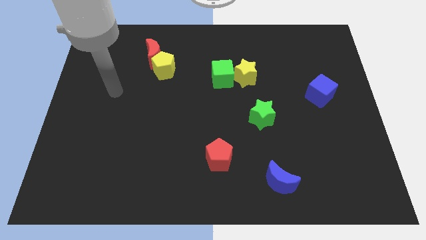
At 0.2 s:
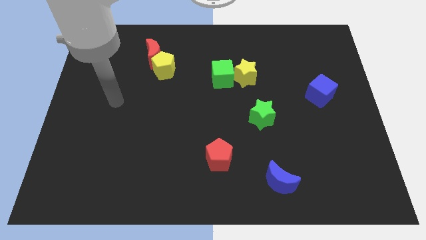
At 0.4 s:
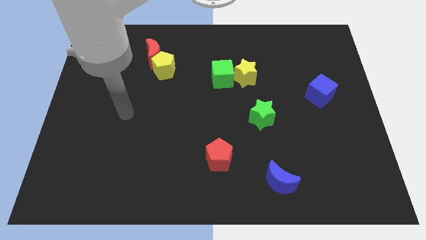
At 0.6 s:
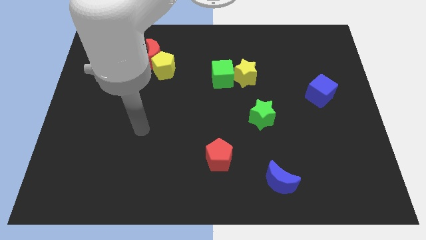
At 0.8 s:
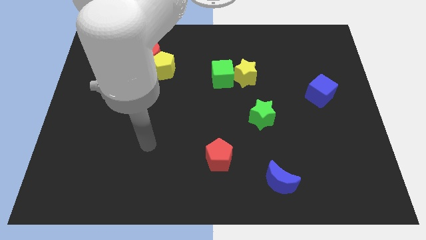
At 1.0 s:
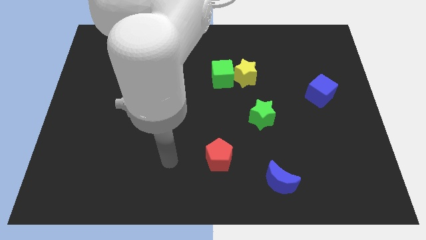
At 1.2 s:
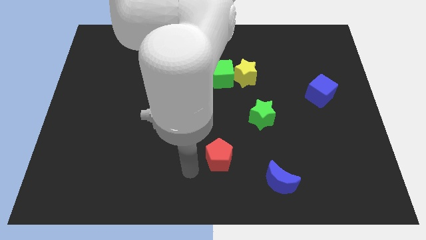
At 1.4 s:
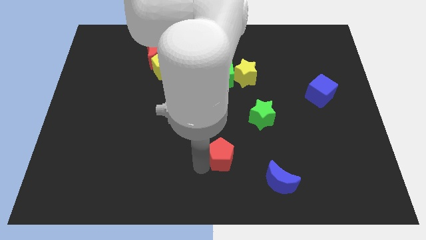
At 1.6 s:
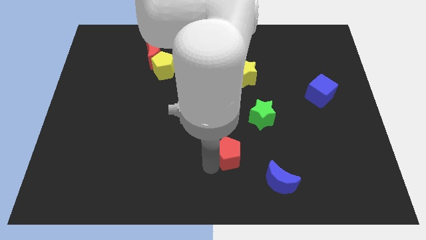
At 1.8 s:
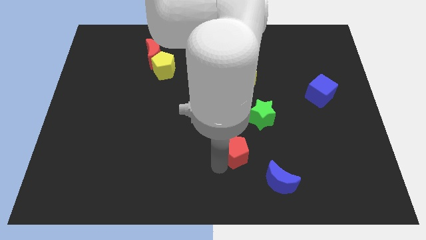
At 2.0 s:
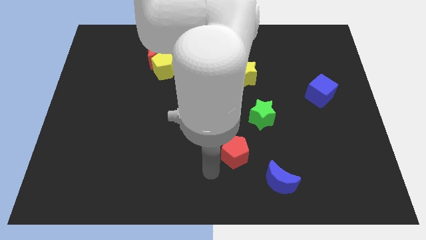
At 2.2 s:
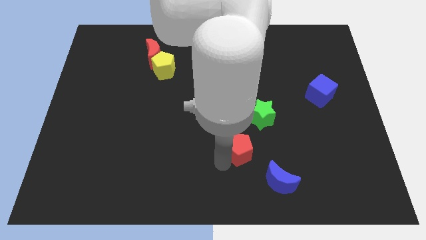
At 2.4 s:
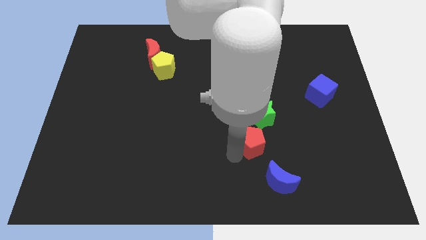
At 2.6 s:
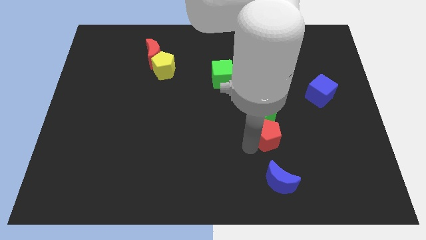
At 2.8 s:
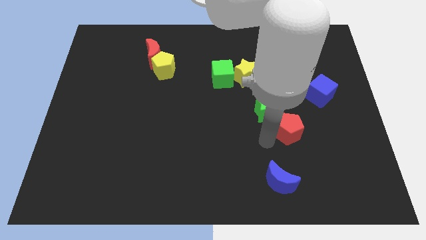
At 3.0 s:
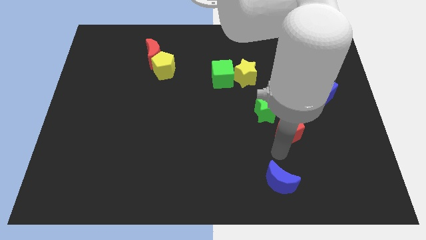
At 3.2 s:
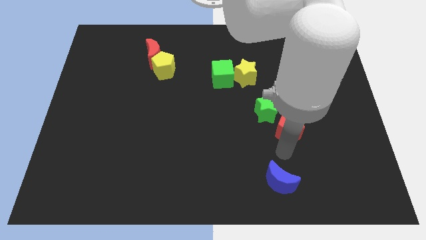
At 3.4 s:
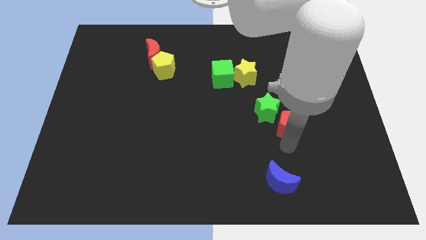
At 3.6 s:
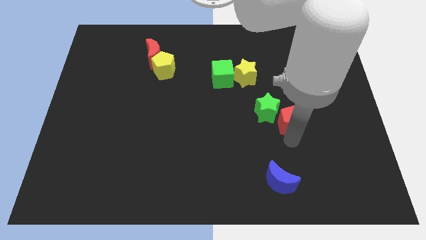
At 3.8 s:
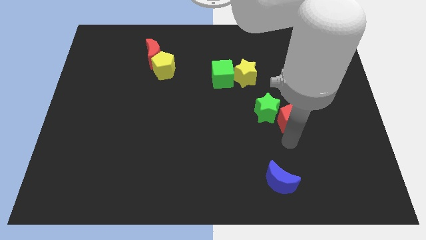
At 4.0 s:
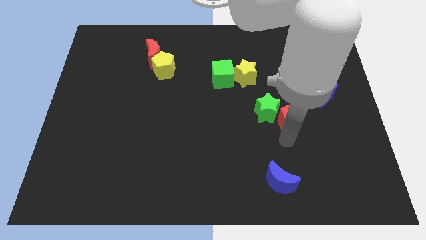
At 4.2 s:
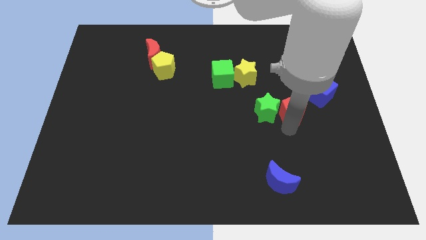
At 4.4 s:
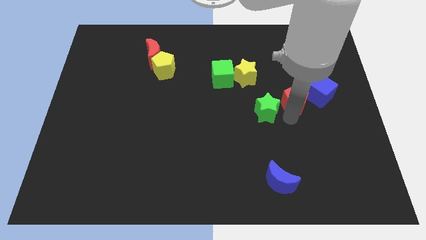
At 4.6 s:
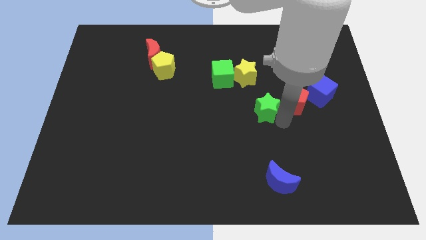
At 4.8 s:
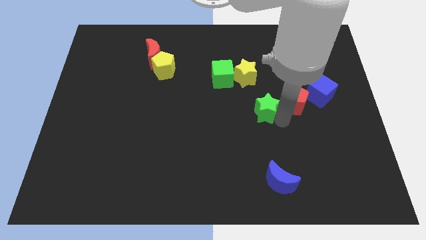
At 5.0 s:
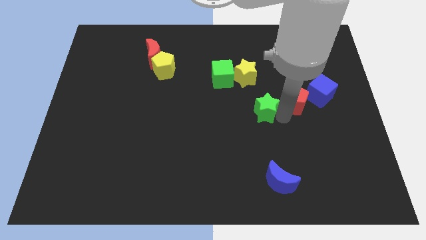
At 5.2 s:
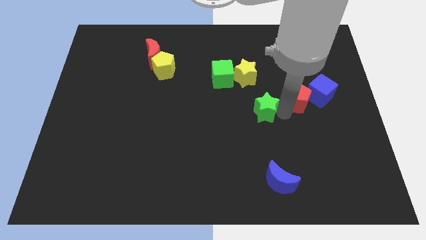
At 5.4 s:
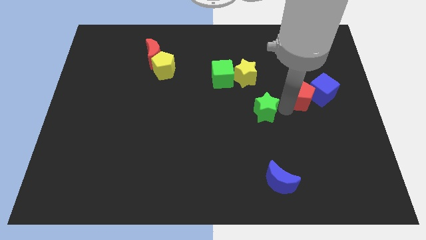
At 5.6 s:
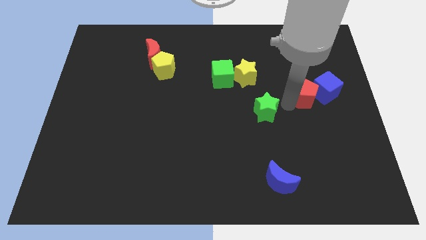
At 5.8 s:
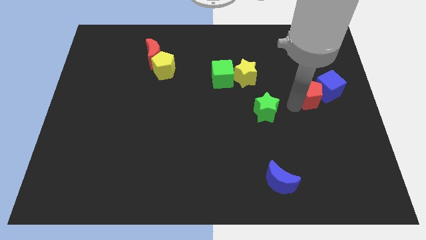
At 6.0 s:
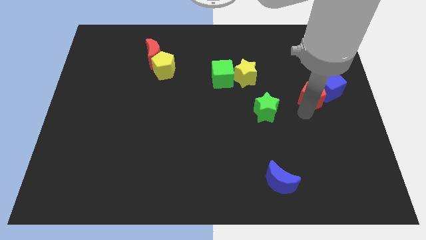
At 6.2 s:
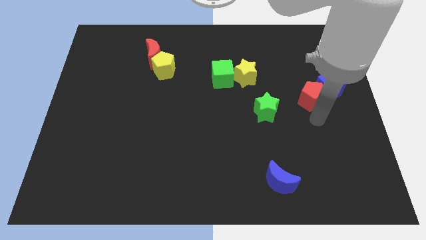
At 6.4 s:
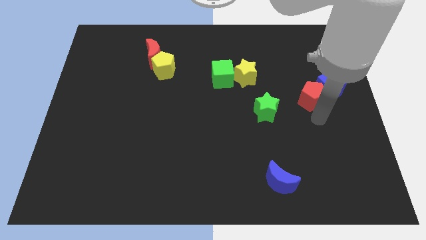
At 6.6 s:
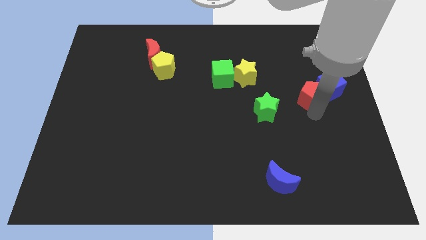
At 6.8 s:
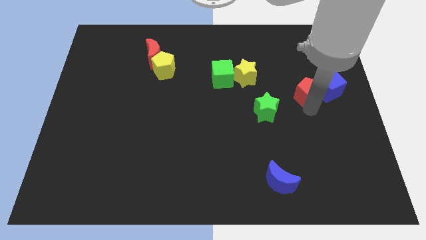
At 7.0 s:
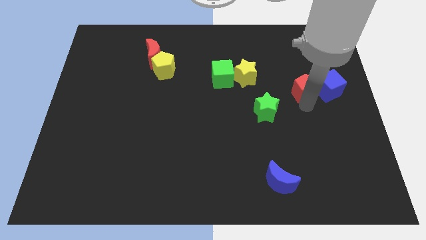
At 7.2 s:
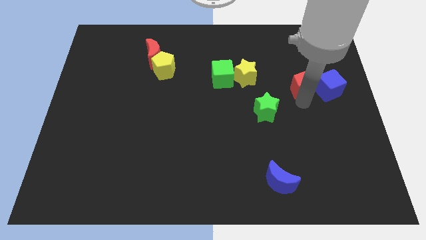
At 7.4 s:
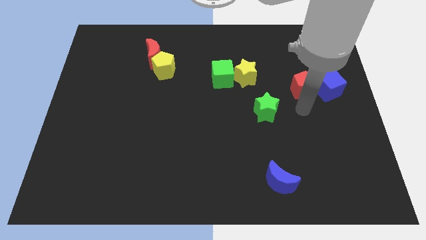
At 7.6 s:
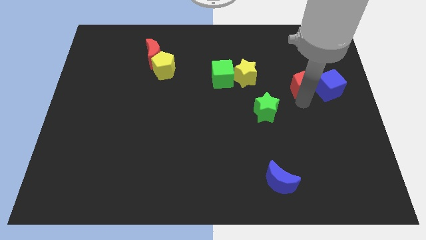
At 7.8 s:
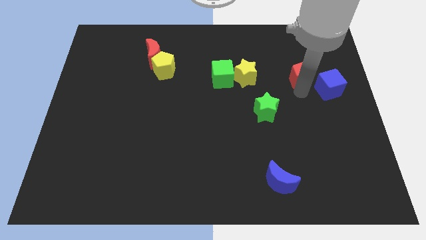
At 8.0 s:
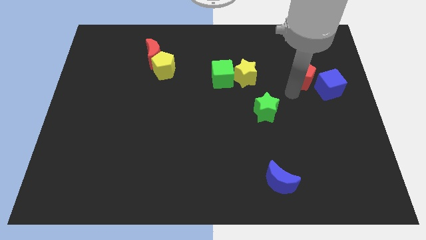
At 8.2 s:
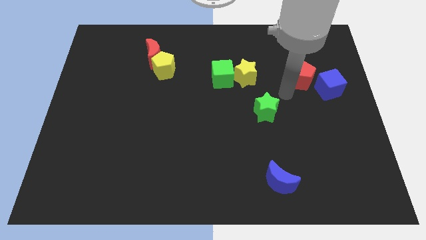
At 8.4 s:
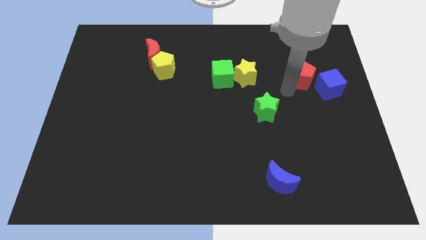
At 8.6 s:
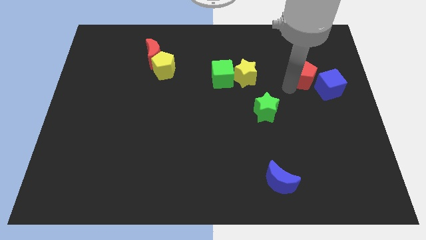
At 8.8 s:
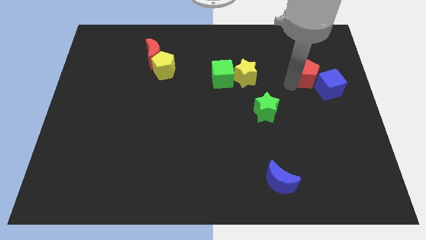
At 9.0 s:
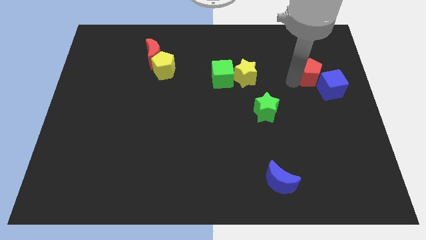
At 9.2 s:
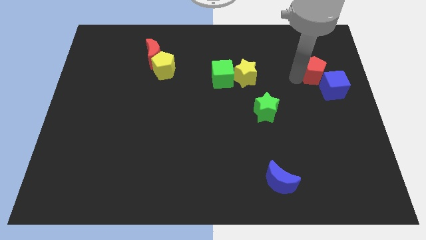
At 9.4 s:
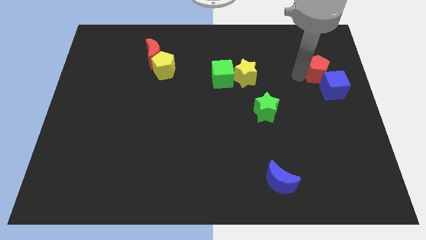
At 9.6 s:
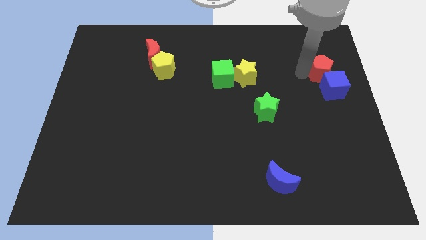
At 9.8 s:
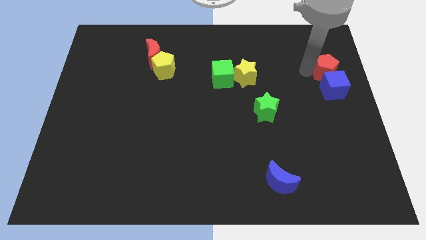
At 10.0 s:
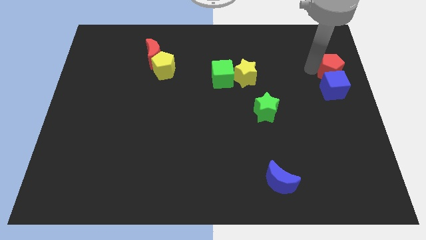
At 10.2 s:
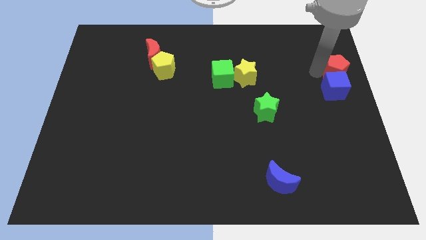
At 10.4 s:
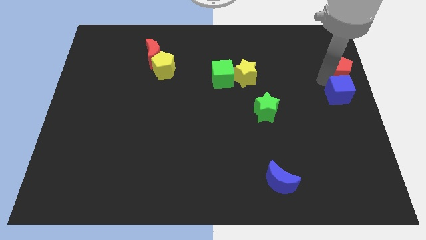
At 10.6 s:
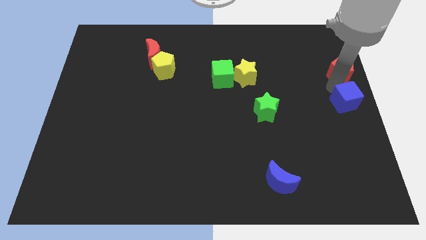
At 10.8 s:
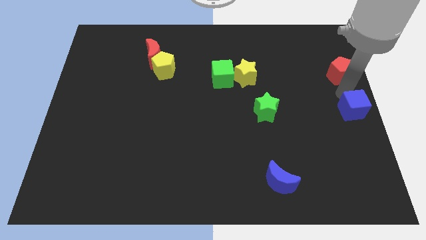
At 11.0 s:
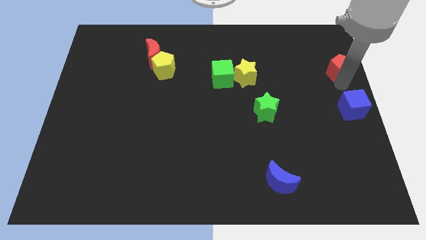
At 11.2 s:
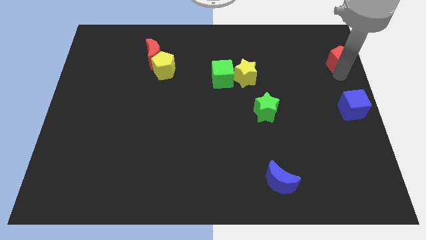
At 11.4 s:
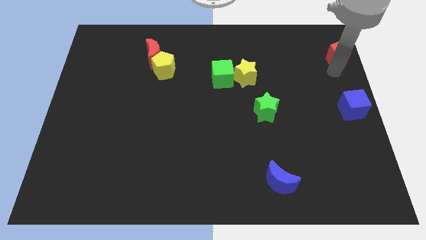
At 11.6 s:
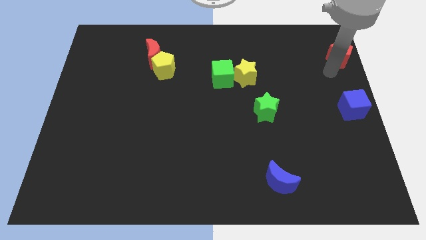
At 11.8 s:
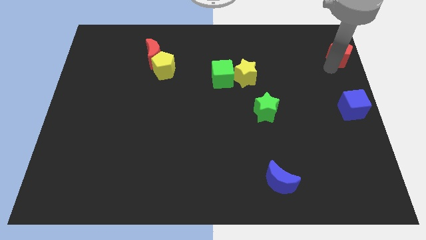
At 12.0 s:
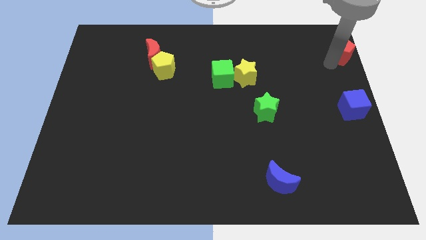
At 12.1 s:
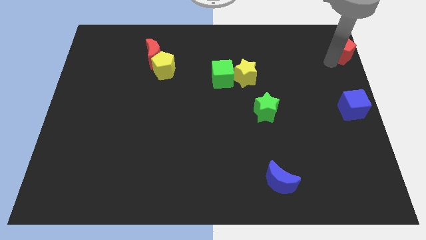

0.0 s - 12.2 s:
slide the red pentagon to the top right
